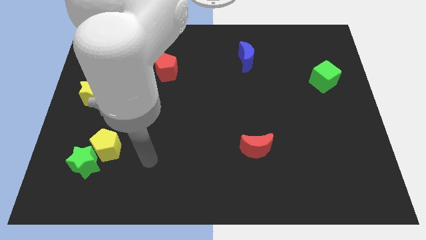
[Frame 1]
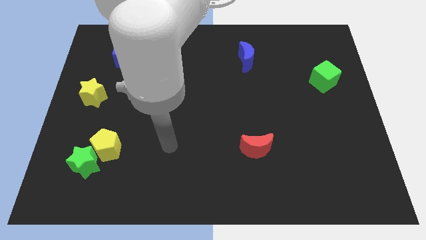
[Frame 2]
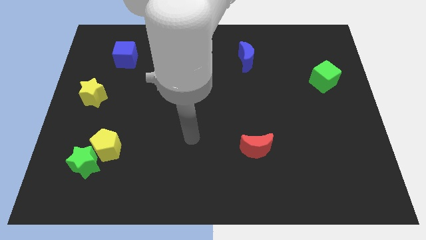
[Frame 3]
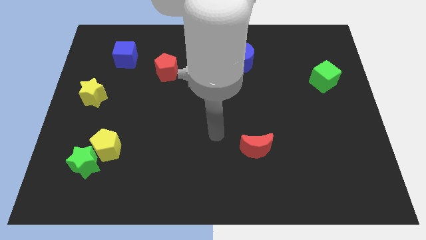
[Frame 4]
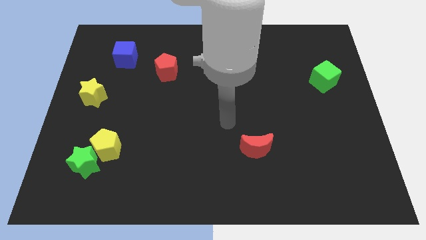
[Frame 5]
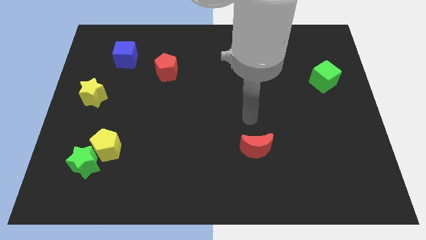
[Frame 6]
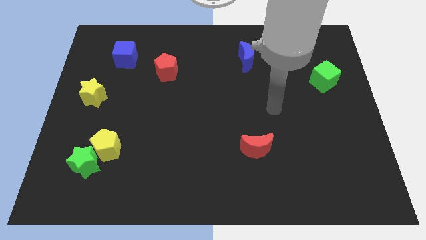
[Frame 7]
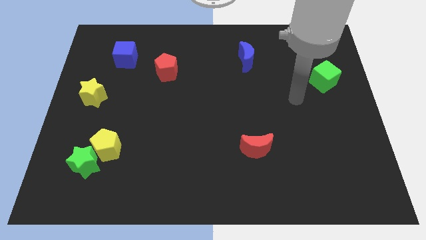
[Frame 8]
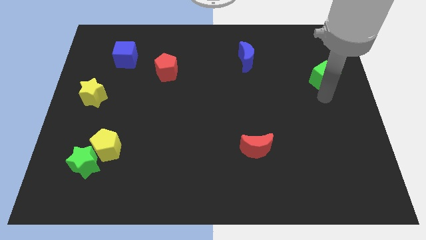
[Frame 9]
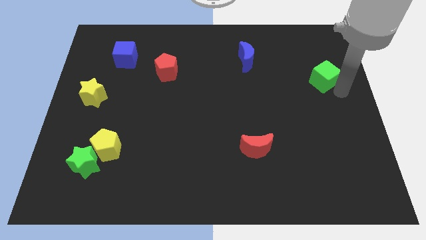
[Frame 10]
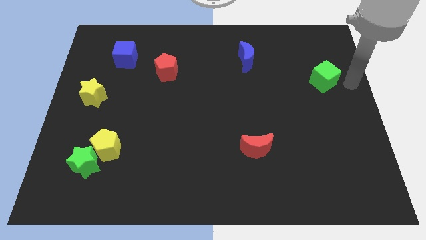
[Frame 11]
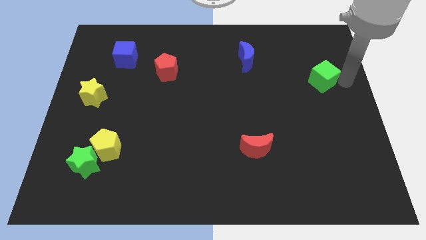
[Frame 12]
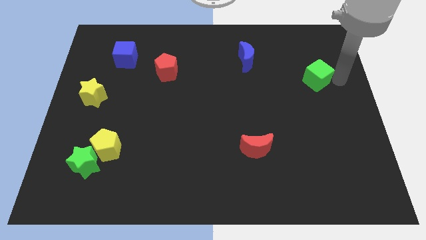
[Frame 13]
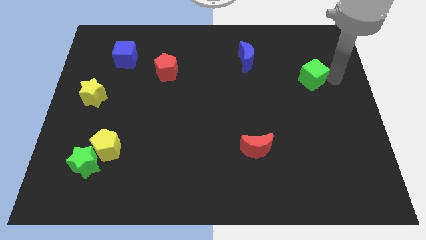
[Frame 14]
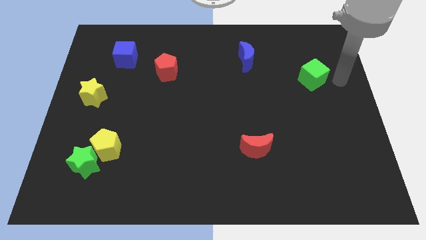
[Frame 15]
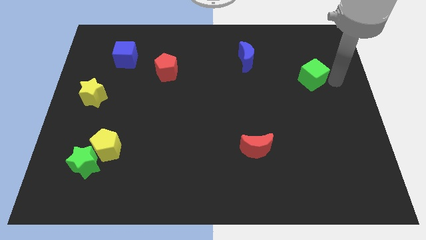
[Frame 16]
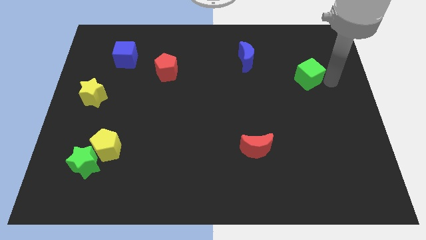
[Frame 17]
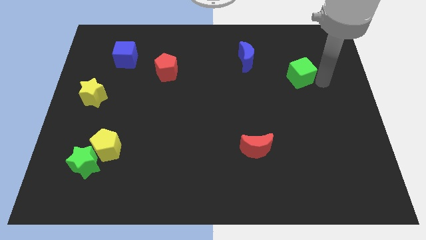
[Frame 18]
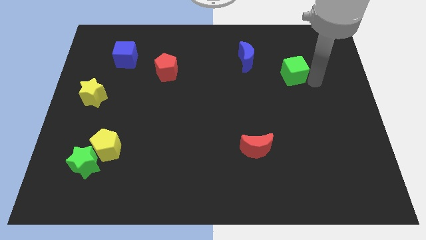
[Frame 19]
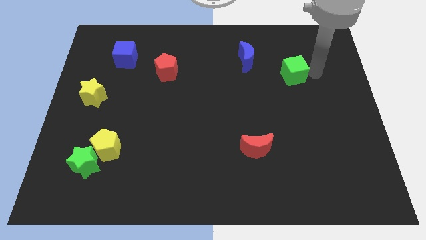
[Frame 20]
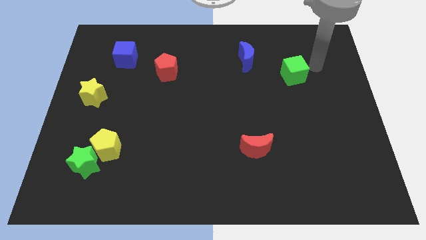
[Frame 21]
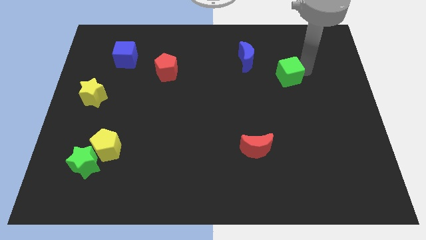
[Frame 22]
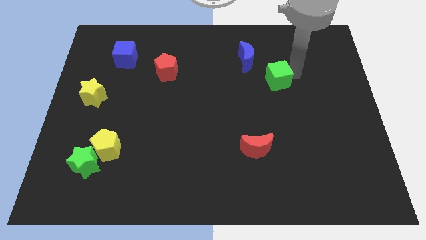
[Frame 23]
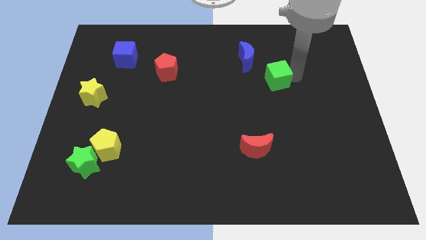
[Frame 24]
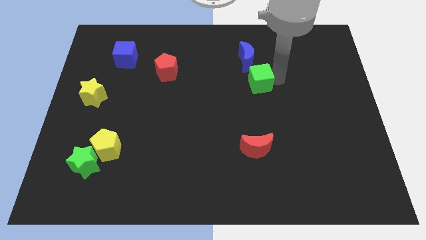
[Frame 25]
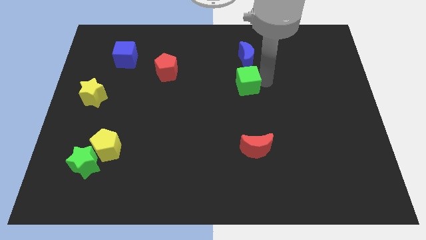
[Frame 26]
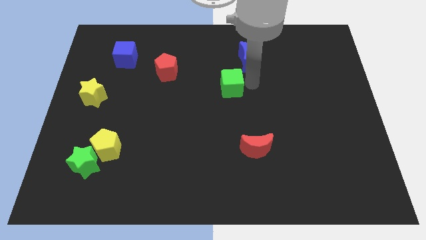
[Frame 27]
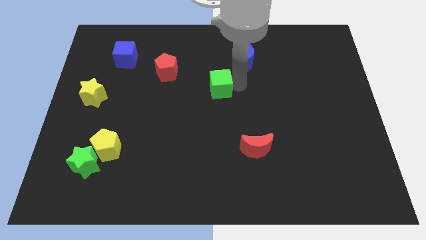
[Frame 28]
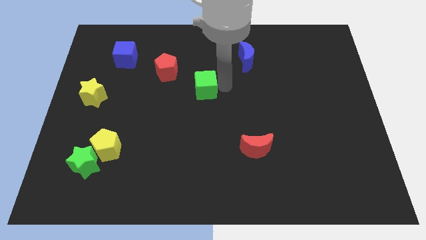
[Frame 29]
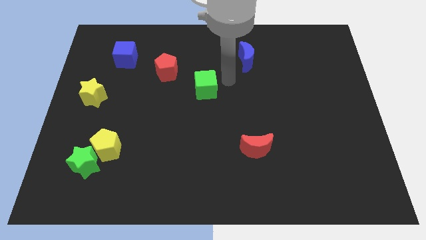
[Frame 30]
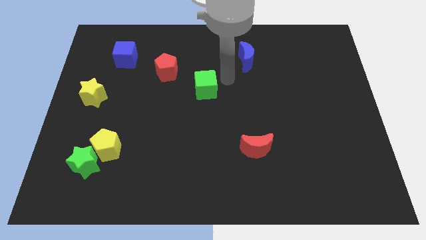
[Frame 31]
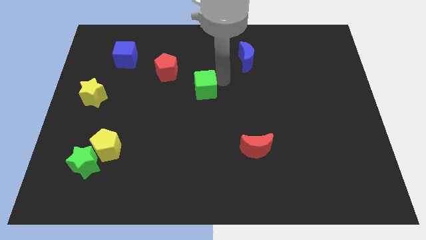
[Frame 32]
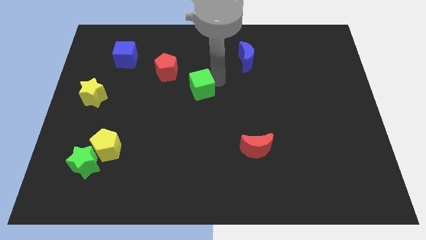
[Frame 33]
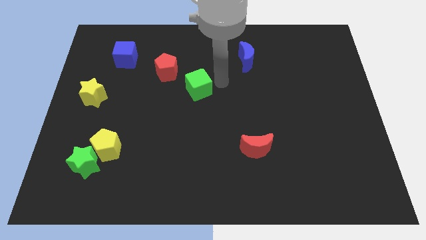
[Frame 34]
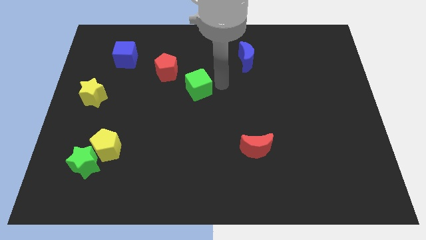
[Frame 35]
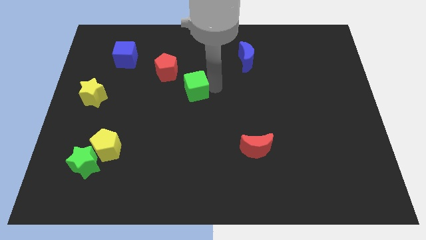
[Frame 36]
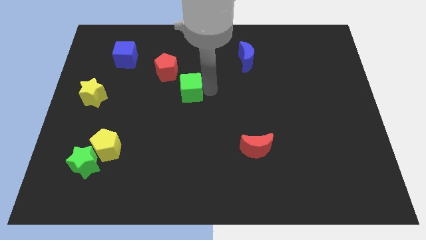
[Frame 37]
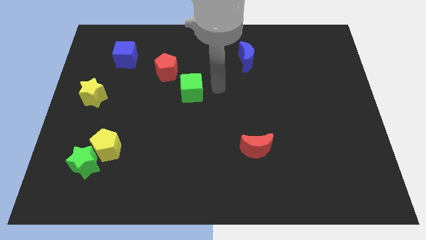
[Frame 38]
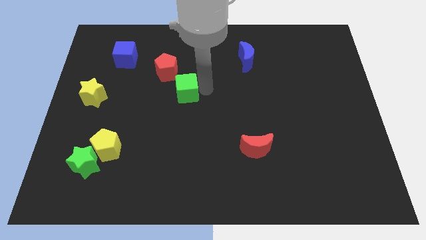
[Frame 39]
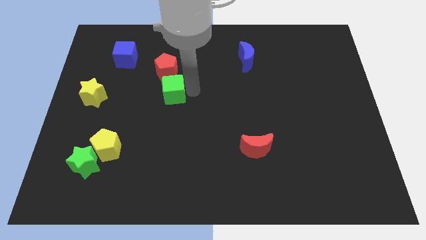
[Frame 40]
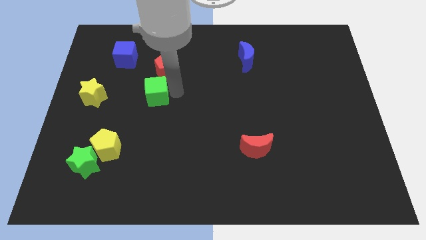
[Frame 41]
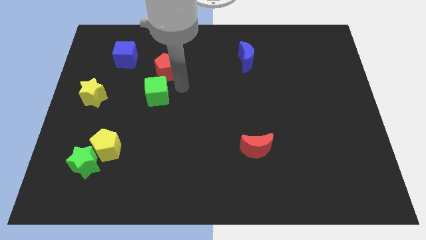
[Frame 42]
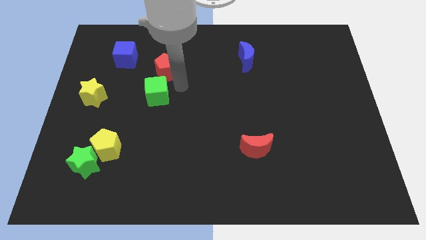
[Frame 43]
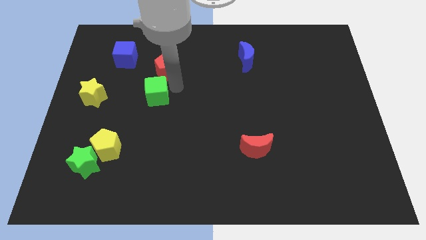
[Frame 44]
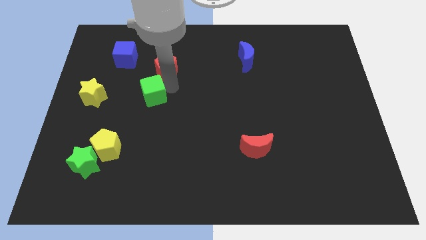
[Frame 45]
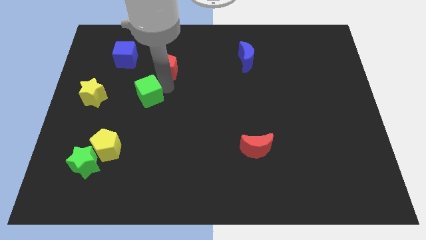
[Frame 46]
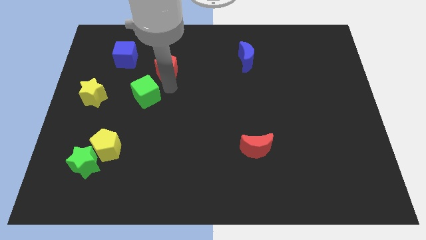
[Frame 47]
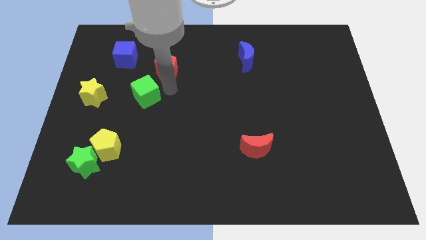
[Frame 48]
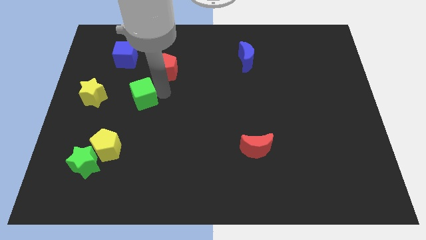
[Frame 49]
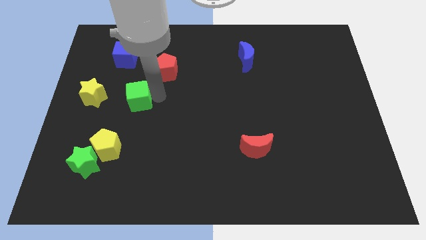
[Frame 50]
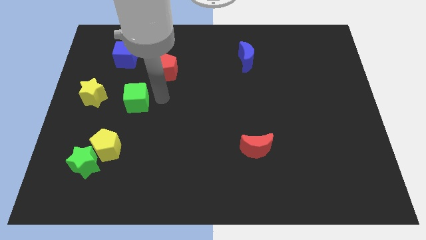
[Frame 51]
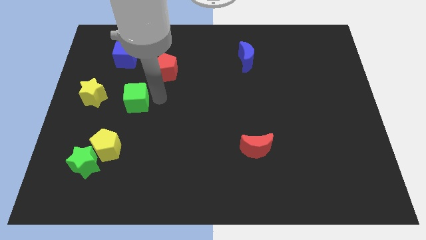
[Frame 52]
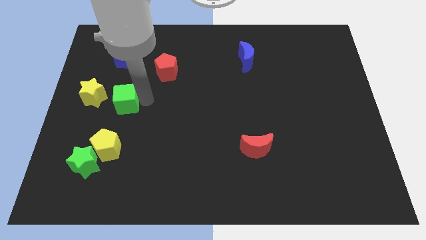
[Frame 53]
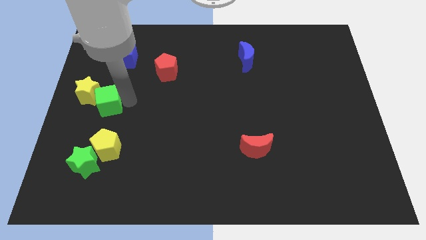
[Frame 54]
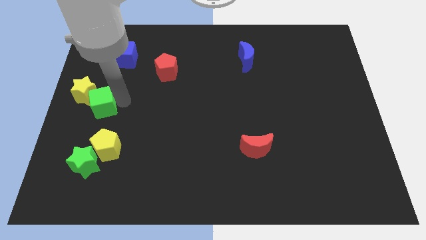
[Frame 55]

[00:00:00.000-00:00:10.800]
put the green cube to the left side of the board

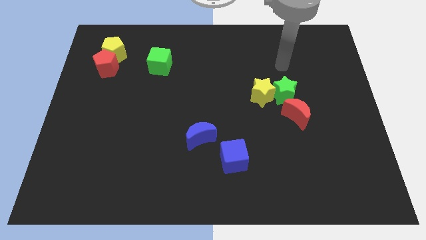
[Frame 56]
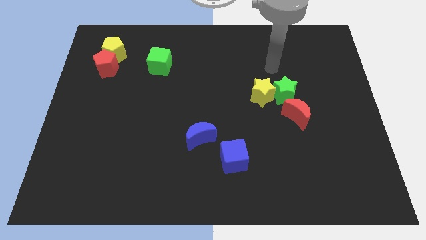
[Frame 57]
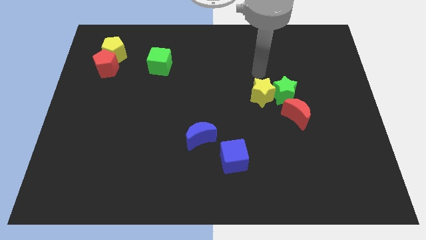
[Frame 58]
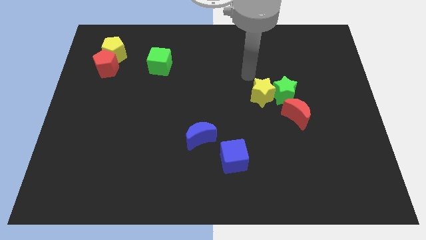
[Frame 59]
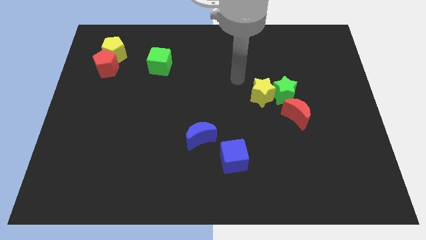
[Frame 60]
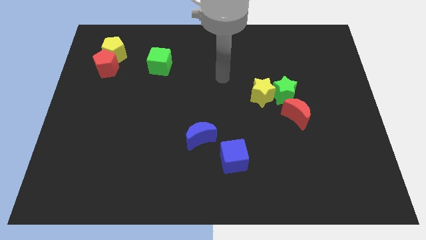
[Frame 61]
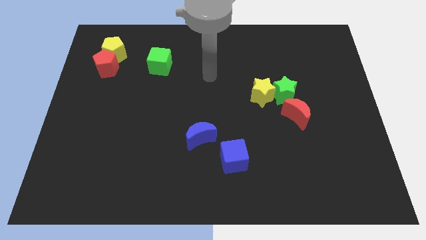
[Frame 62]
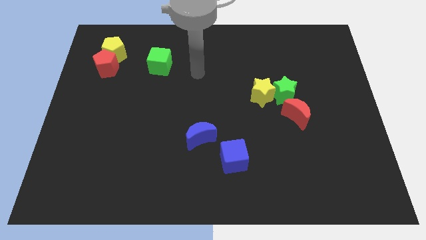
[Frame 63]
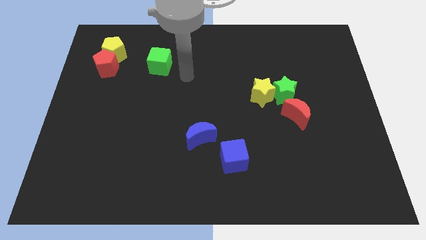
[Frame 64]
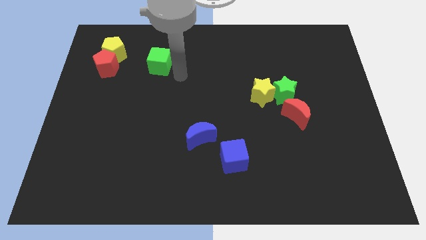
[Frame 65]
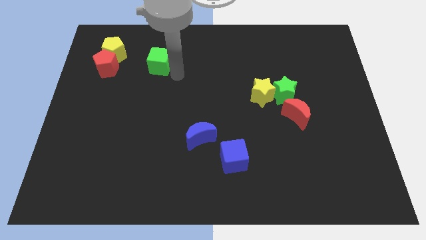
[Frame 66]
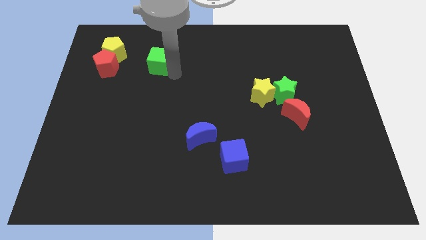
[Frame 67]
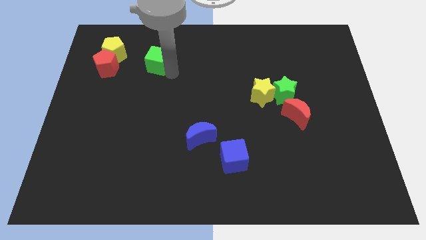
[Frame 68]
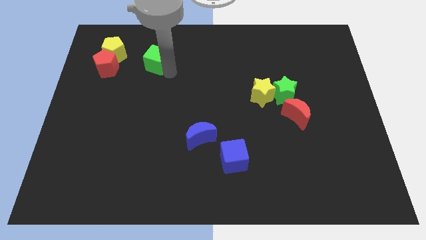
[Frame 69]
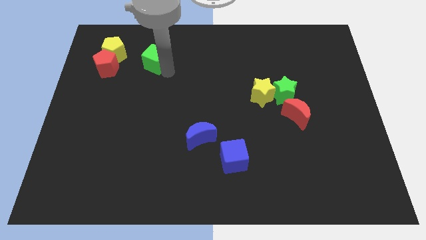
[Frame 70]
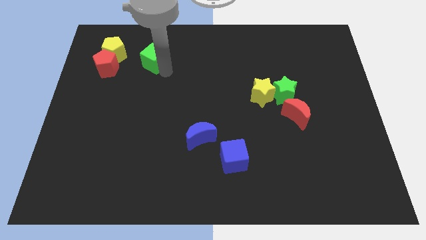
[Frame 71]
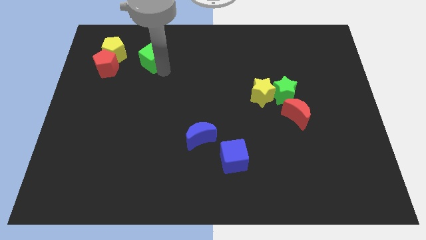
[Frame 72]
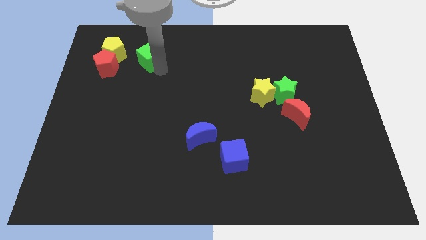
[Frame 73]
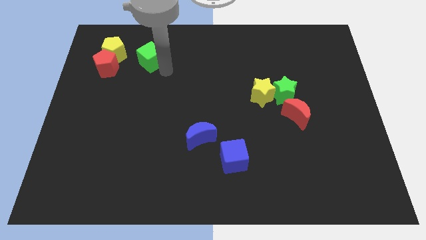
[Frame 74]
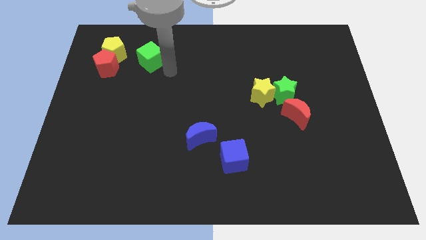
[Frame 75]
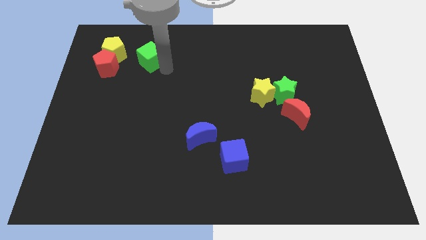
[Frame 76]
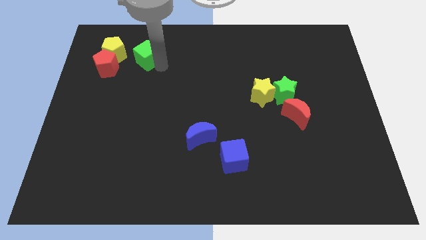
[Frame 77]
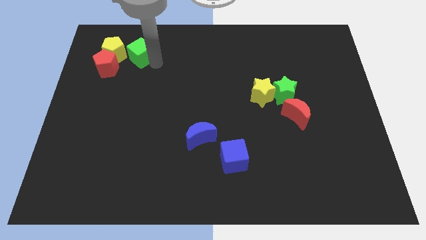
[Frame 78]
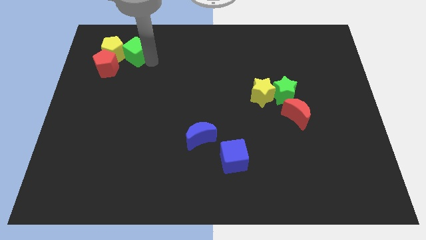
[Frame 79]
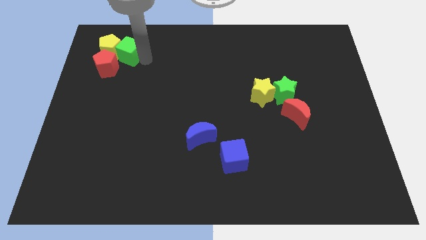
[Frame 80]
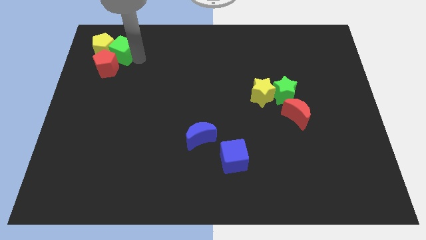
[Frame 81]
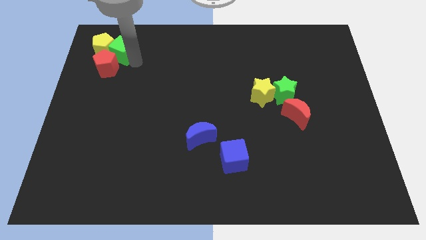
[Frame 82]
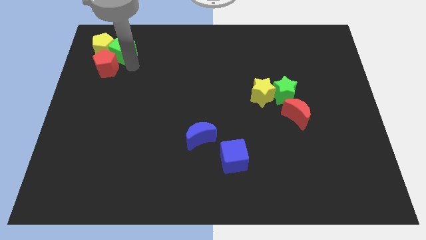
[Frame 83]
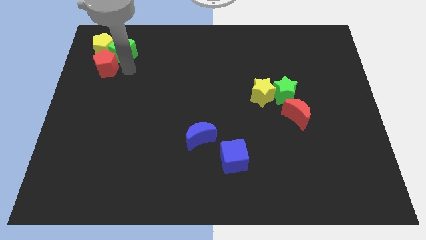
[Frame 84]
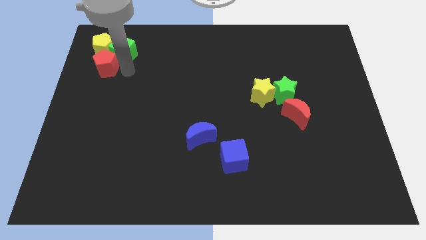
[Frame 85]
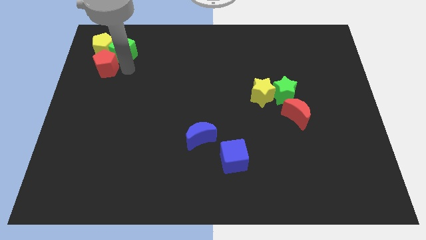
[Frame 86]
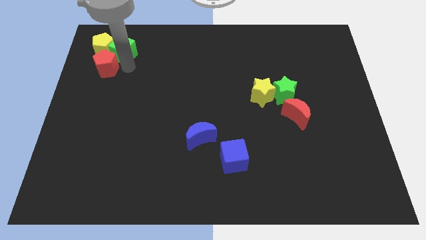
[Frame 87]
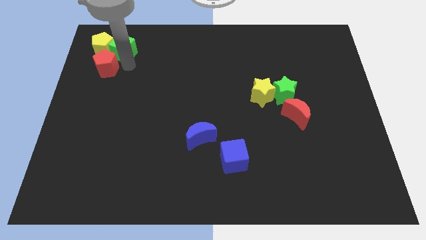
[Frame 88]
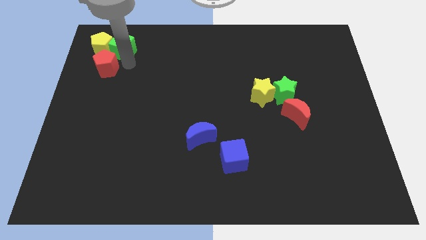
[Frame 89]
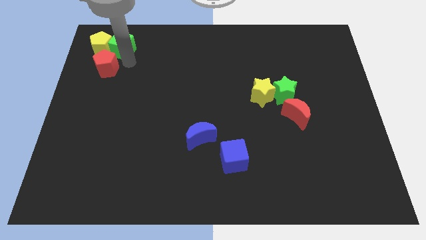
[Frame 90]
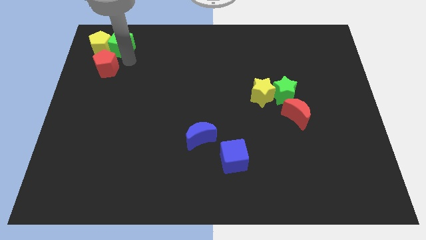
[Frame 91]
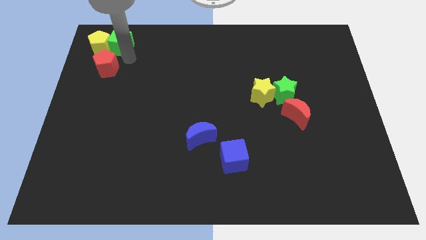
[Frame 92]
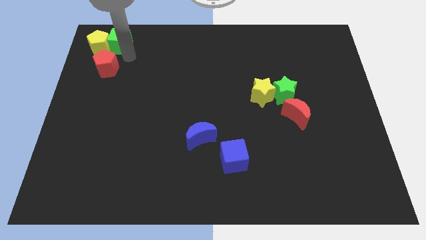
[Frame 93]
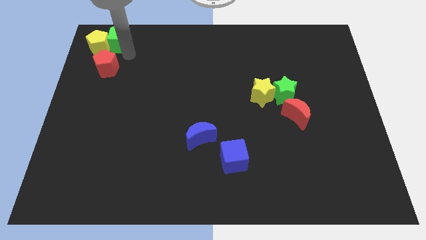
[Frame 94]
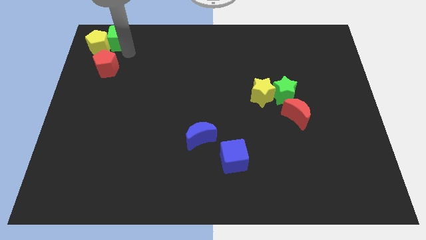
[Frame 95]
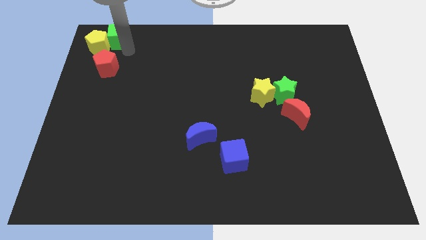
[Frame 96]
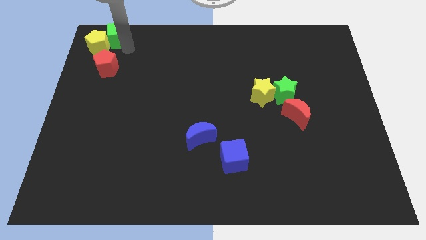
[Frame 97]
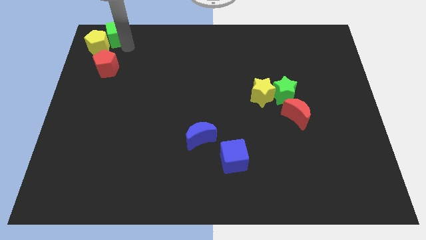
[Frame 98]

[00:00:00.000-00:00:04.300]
put the green cube to the top left
